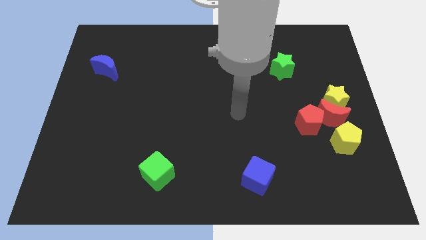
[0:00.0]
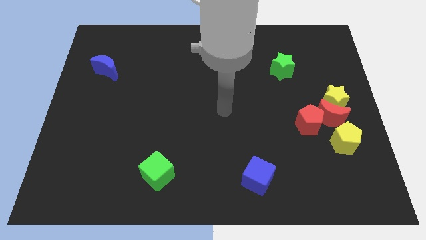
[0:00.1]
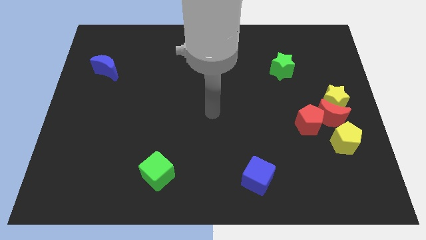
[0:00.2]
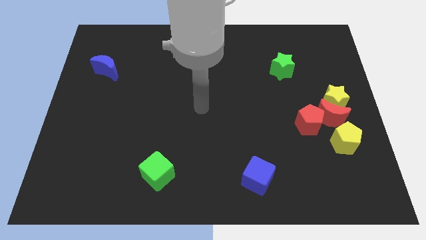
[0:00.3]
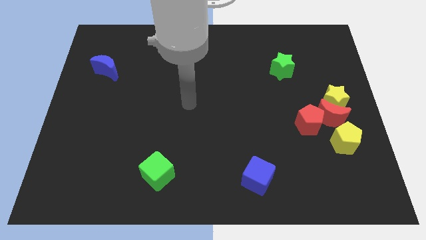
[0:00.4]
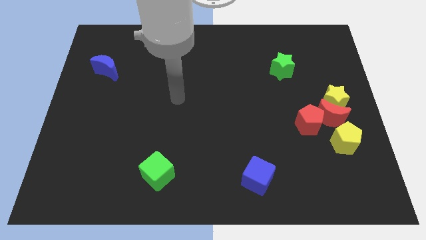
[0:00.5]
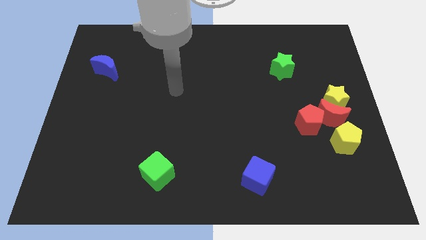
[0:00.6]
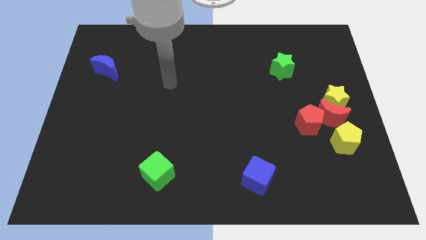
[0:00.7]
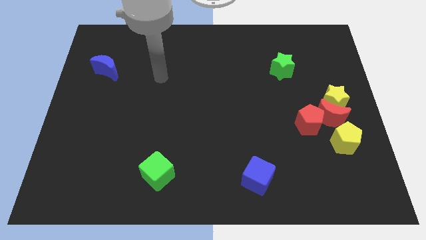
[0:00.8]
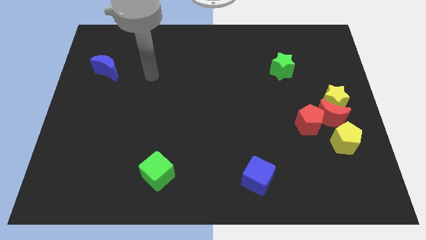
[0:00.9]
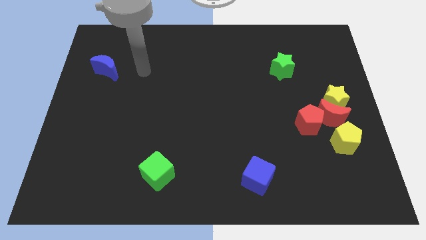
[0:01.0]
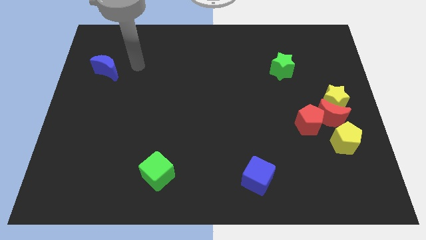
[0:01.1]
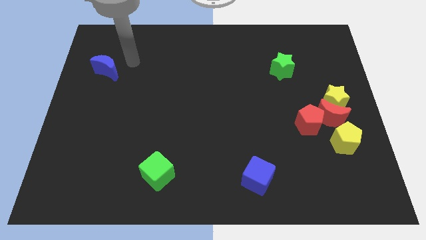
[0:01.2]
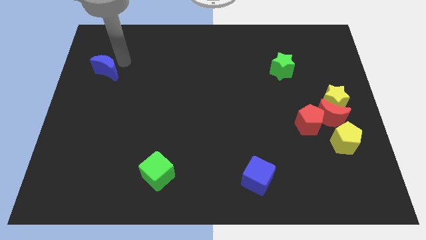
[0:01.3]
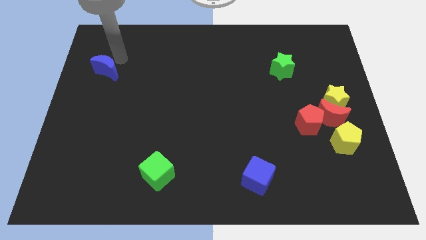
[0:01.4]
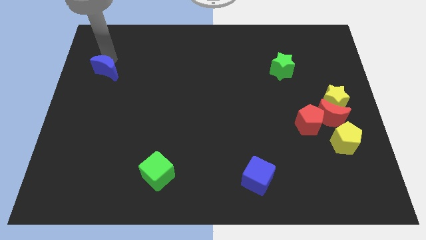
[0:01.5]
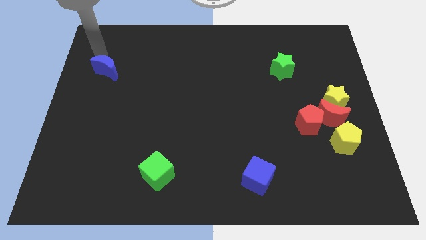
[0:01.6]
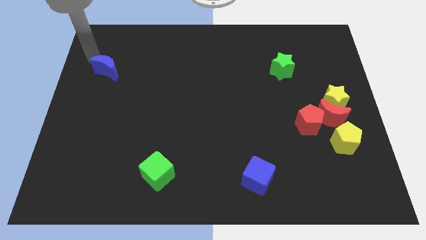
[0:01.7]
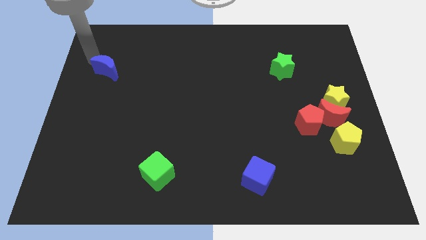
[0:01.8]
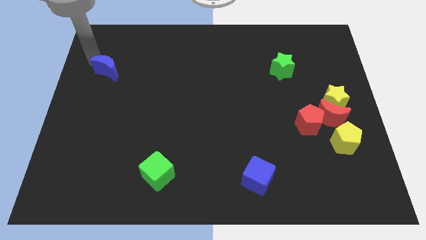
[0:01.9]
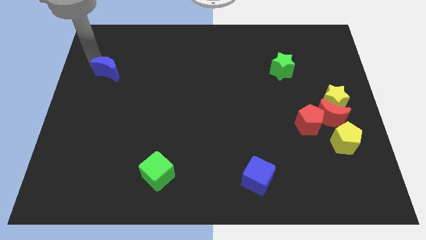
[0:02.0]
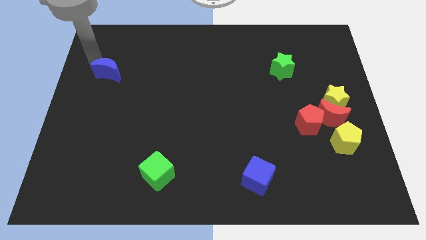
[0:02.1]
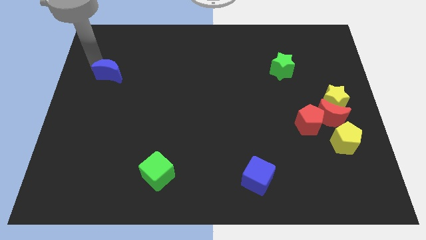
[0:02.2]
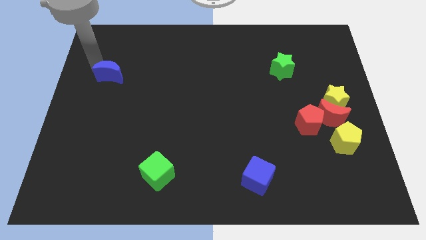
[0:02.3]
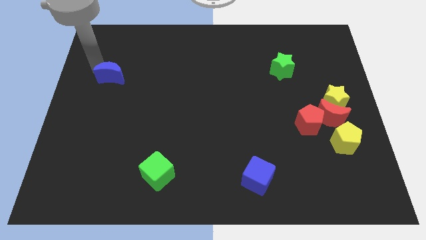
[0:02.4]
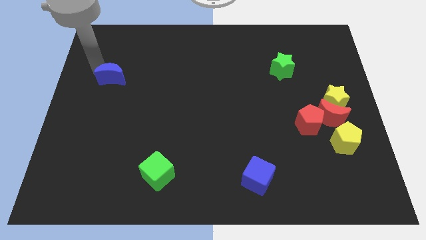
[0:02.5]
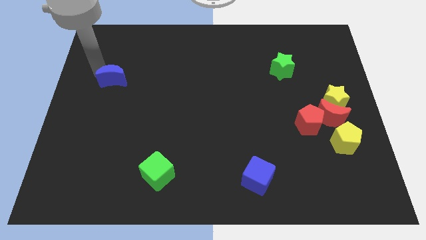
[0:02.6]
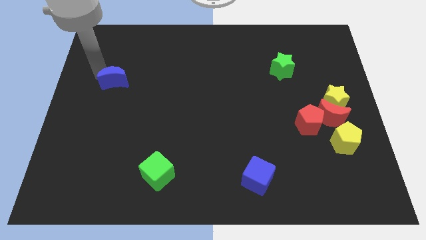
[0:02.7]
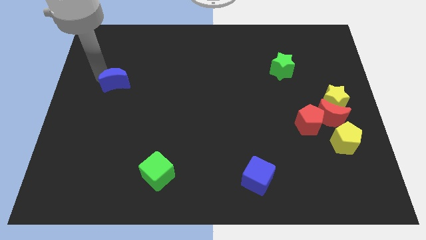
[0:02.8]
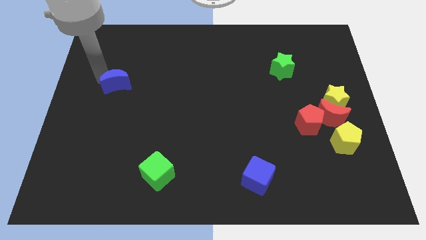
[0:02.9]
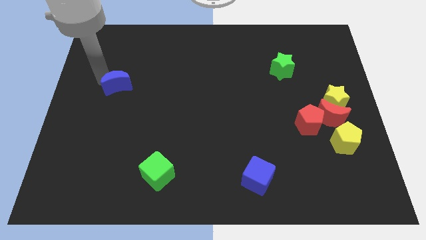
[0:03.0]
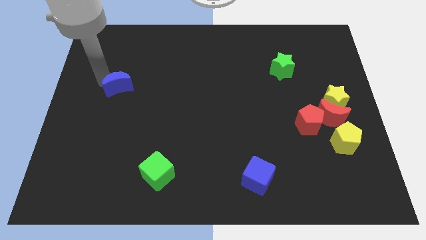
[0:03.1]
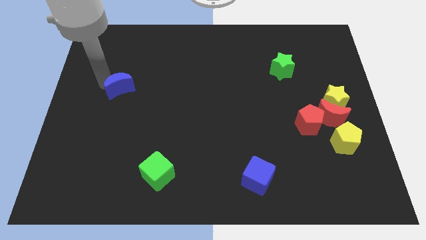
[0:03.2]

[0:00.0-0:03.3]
move the blue moon downwards and then right a little

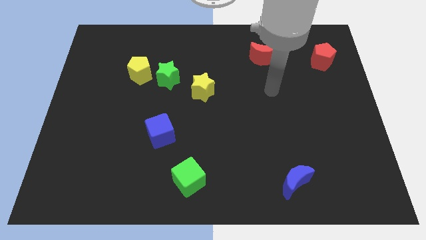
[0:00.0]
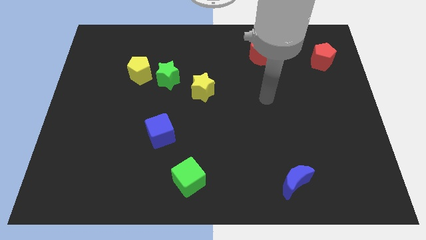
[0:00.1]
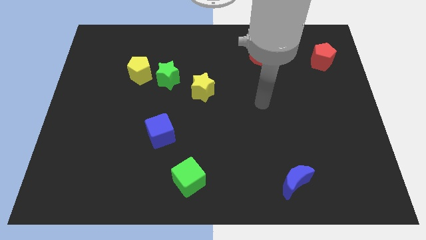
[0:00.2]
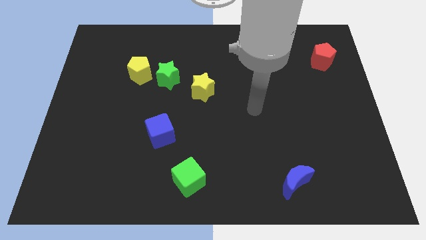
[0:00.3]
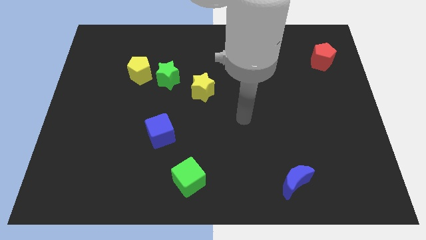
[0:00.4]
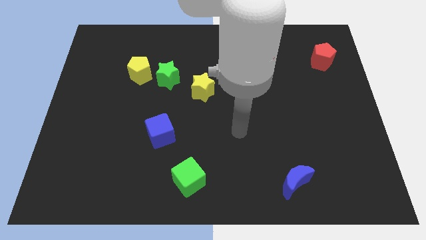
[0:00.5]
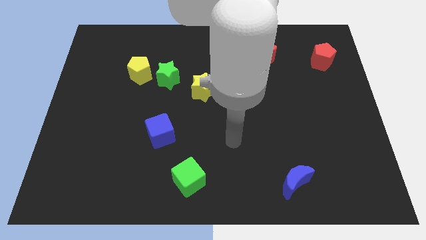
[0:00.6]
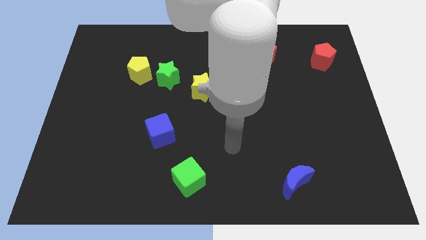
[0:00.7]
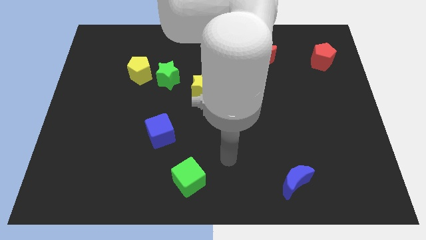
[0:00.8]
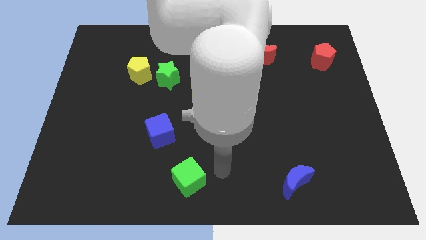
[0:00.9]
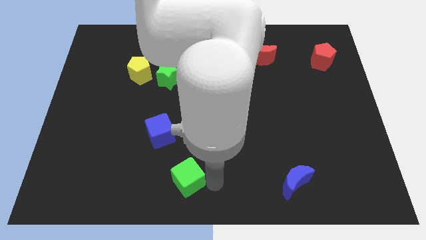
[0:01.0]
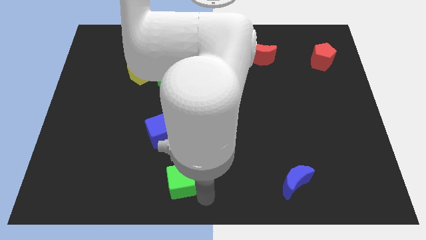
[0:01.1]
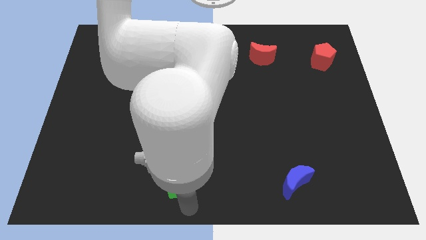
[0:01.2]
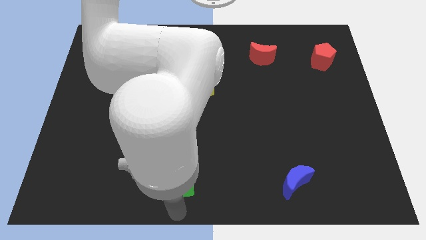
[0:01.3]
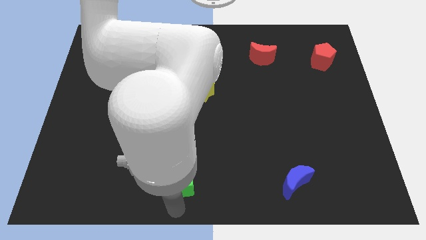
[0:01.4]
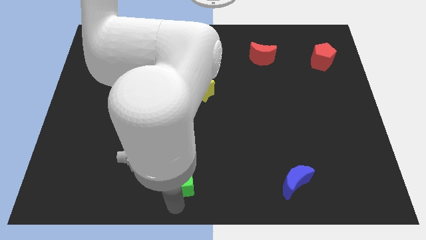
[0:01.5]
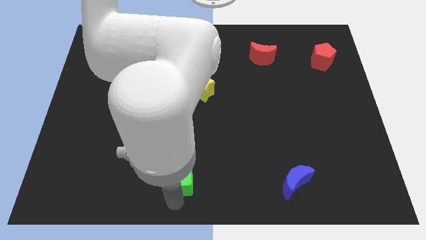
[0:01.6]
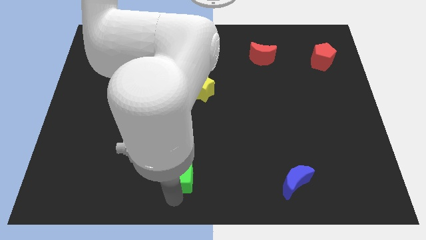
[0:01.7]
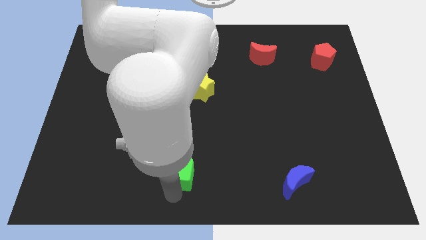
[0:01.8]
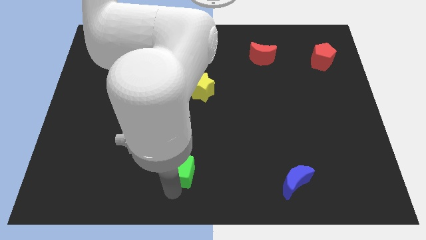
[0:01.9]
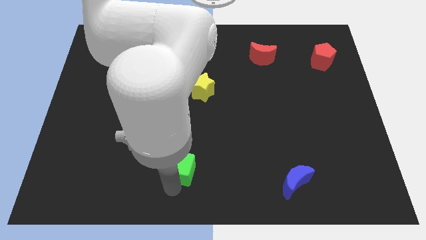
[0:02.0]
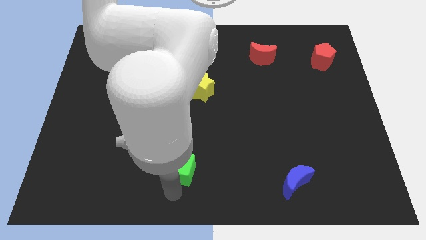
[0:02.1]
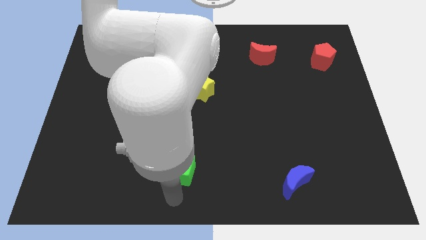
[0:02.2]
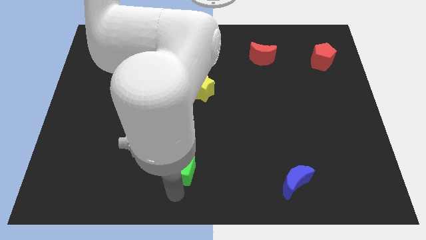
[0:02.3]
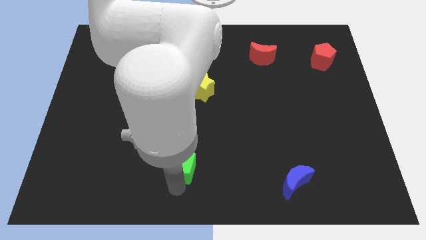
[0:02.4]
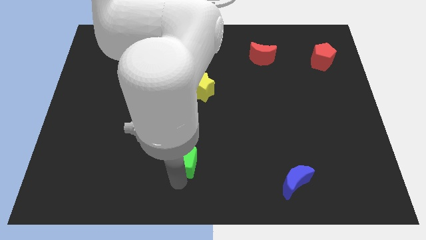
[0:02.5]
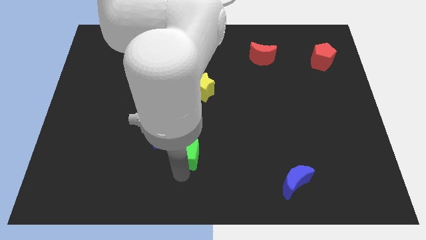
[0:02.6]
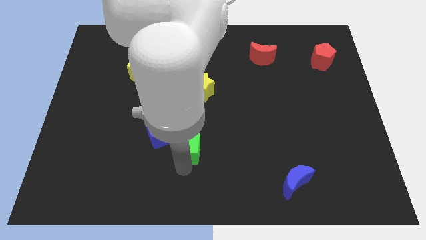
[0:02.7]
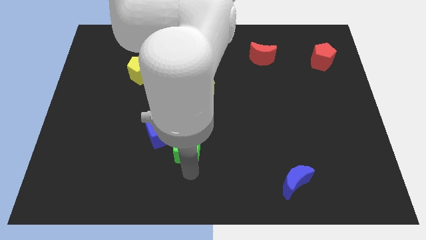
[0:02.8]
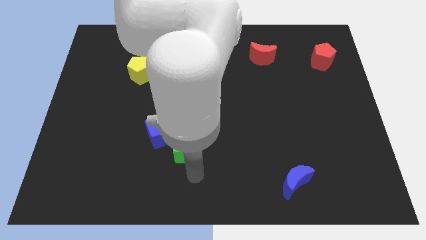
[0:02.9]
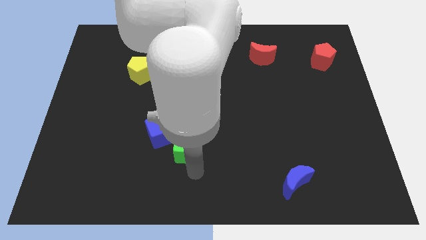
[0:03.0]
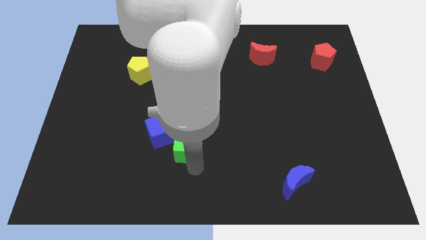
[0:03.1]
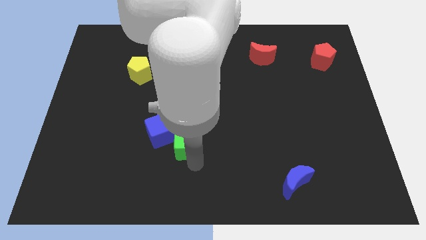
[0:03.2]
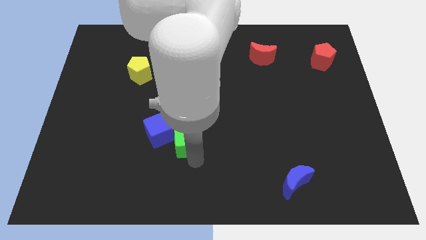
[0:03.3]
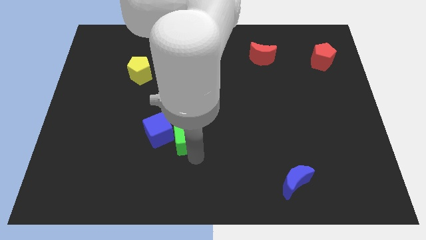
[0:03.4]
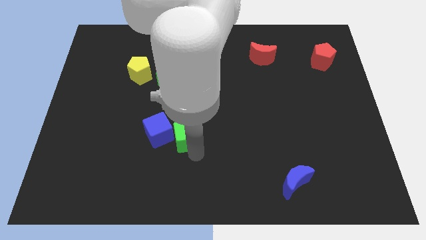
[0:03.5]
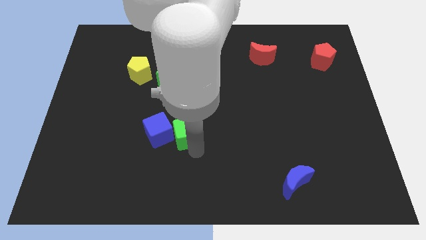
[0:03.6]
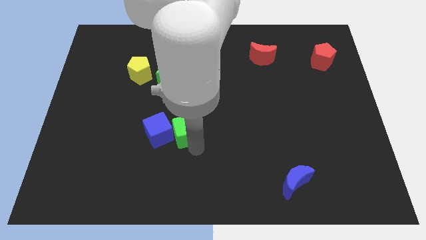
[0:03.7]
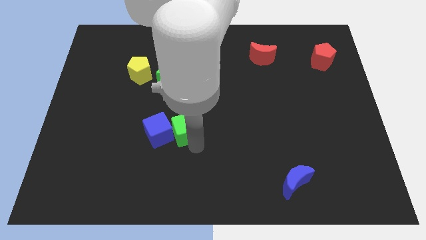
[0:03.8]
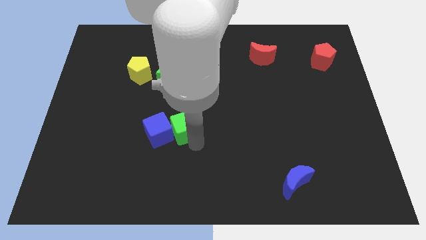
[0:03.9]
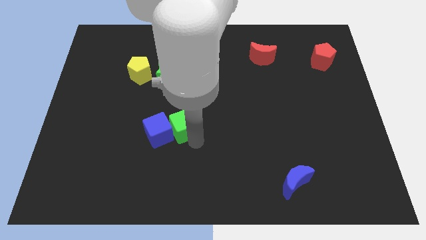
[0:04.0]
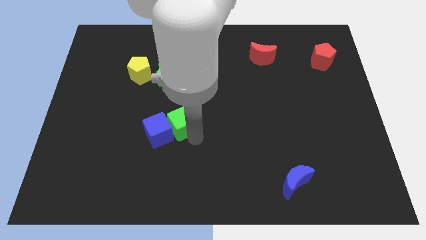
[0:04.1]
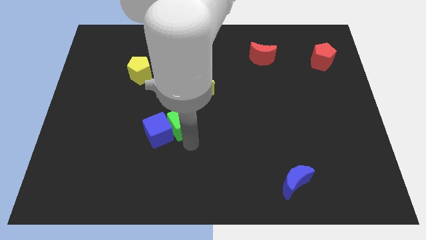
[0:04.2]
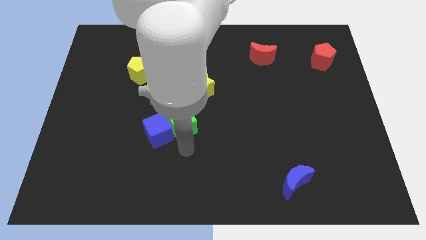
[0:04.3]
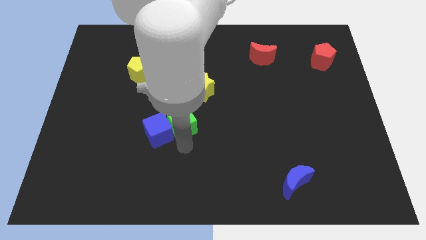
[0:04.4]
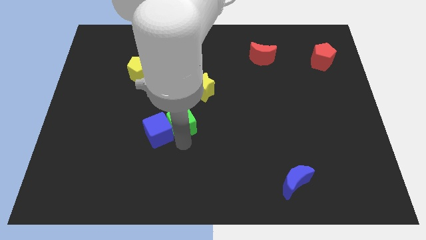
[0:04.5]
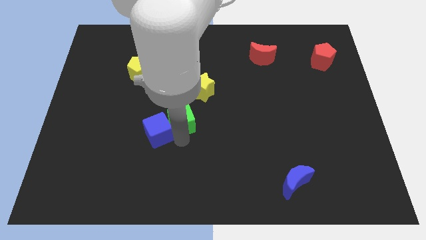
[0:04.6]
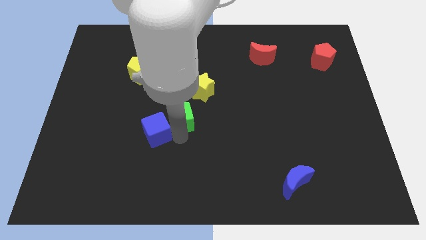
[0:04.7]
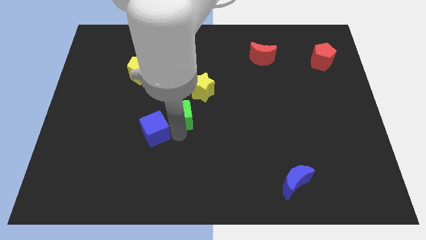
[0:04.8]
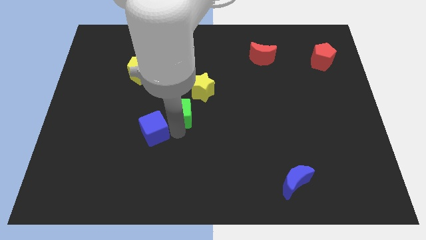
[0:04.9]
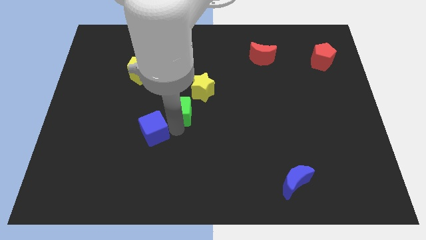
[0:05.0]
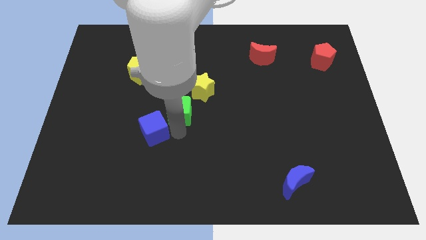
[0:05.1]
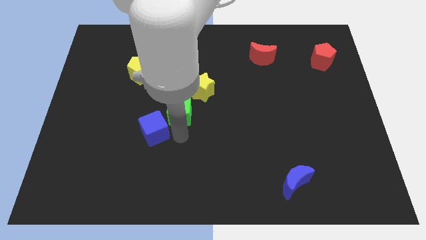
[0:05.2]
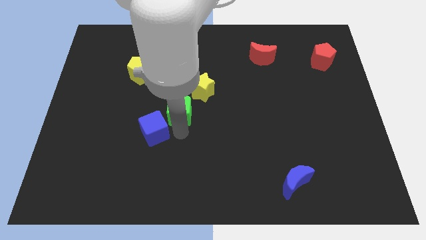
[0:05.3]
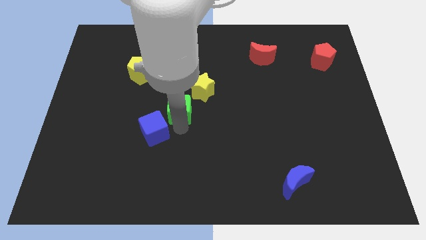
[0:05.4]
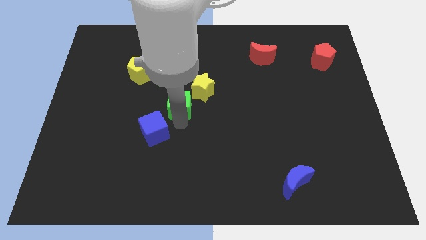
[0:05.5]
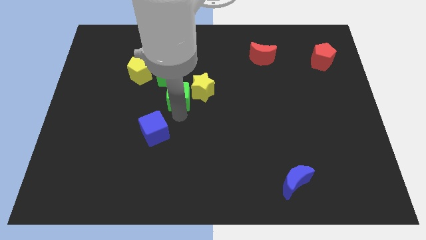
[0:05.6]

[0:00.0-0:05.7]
slide the green cube upwards
